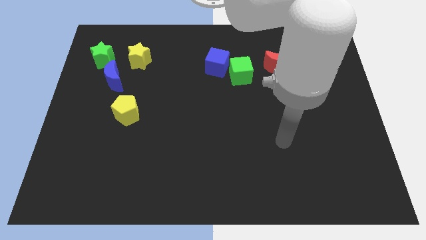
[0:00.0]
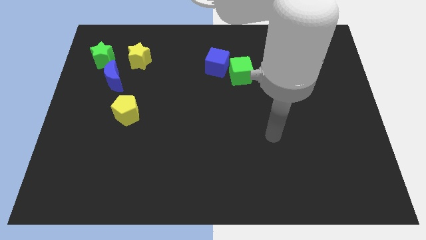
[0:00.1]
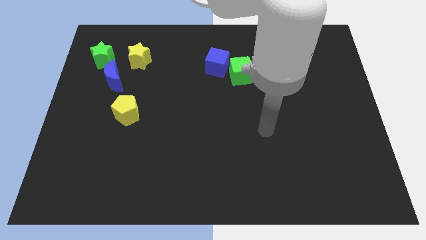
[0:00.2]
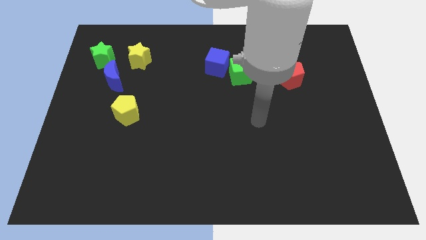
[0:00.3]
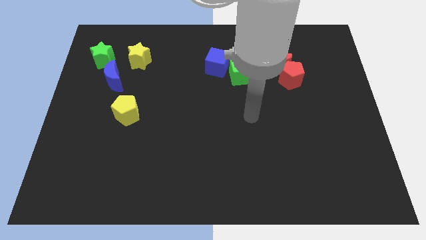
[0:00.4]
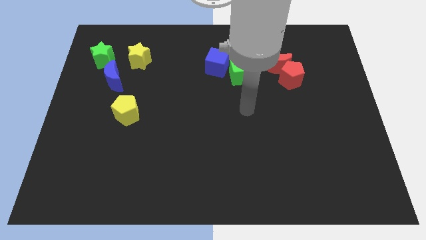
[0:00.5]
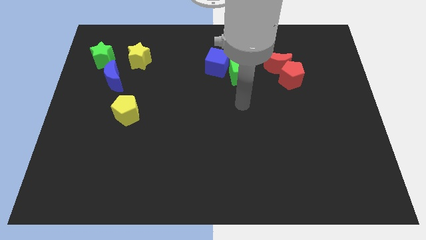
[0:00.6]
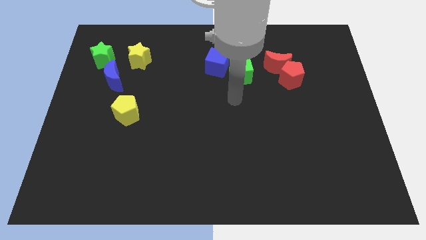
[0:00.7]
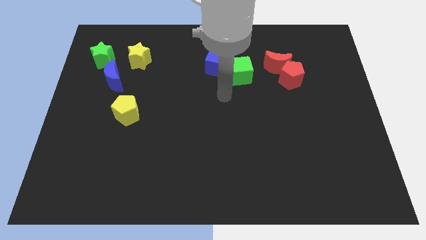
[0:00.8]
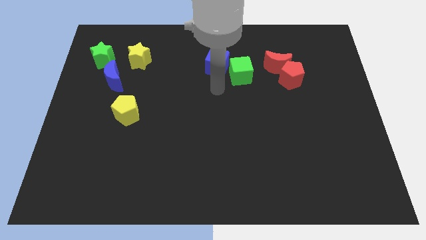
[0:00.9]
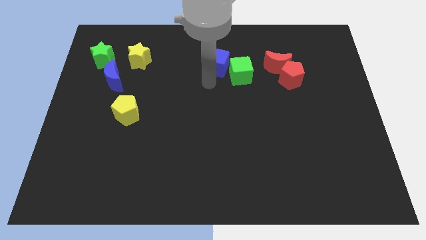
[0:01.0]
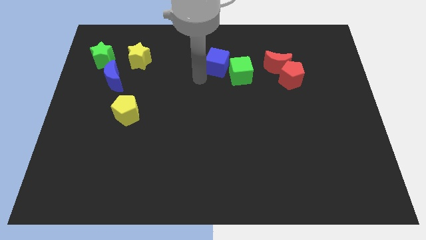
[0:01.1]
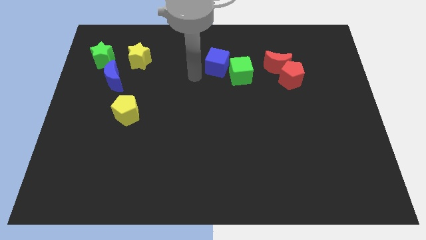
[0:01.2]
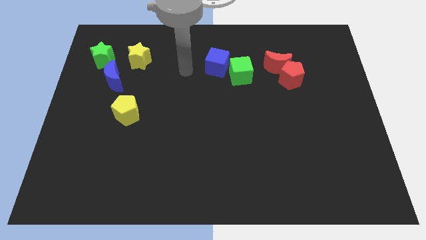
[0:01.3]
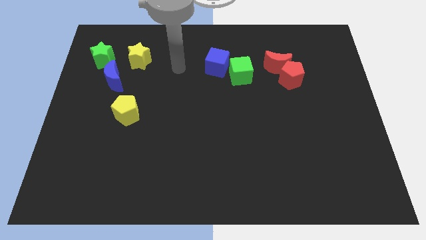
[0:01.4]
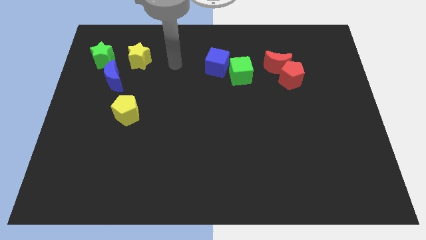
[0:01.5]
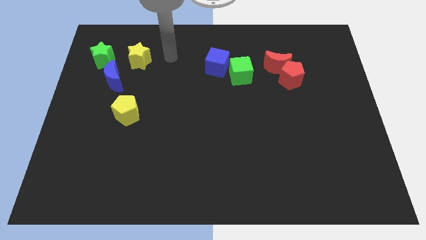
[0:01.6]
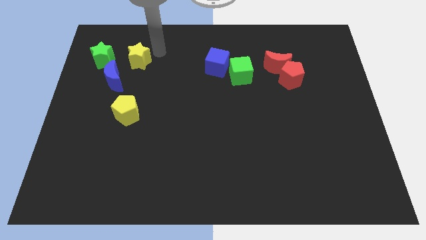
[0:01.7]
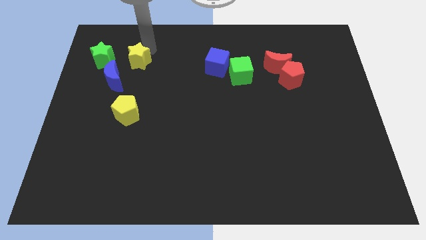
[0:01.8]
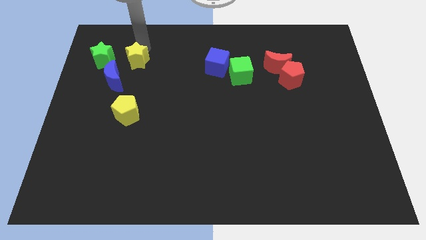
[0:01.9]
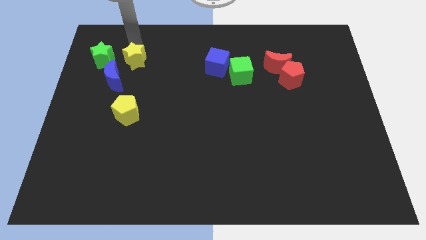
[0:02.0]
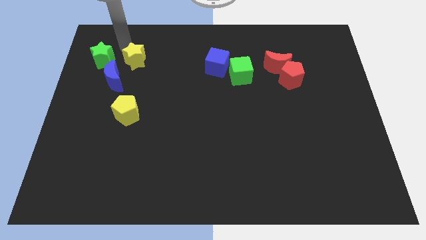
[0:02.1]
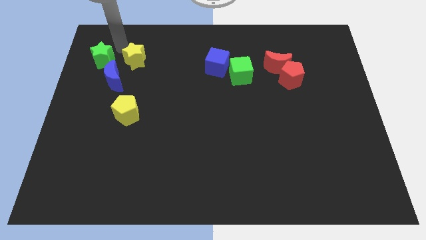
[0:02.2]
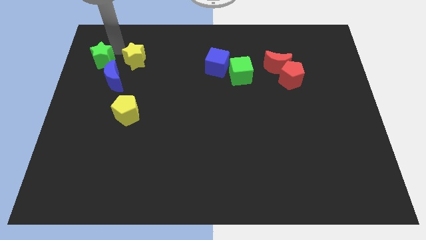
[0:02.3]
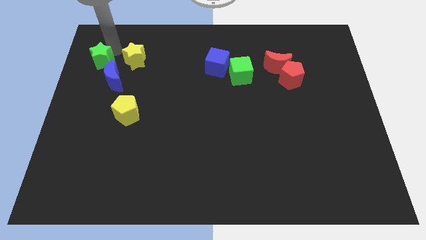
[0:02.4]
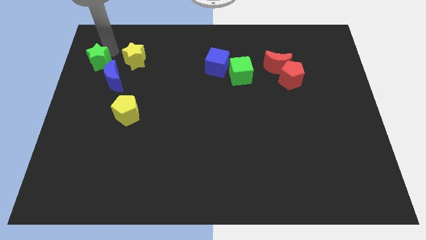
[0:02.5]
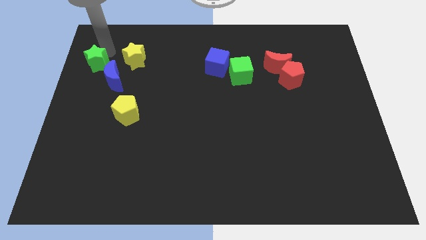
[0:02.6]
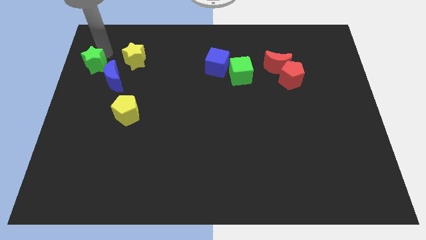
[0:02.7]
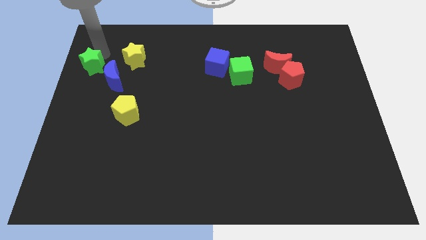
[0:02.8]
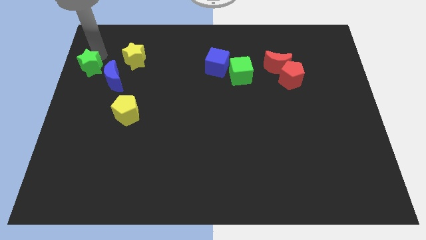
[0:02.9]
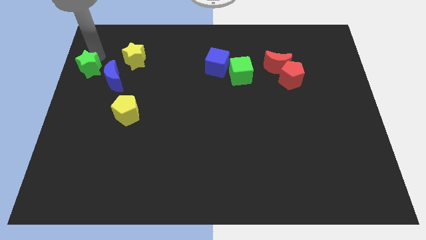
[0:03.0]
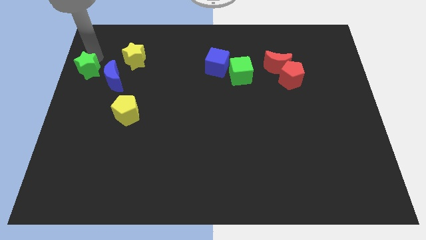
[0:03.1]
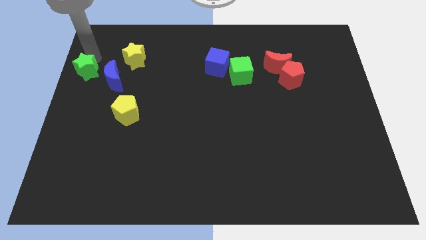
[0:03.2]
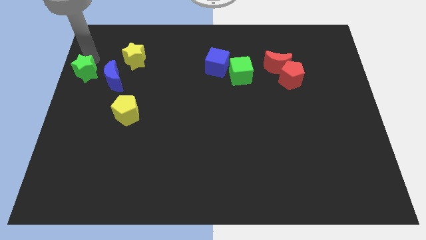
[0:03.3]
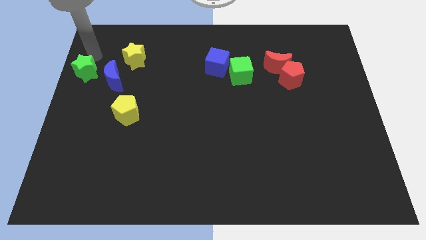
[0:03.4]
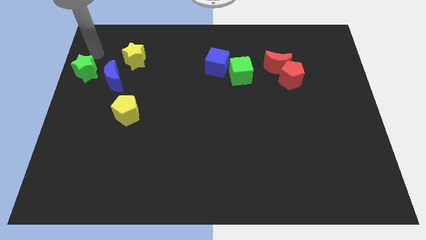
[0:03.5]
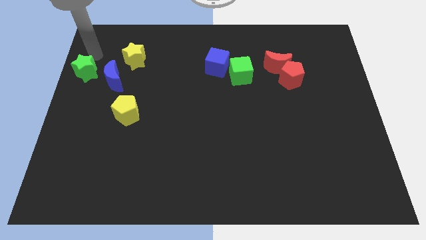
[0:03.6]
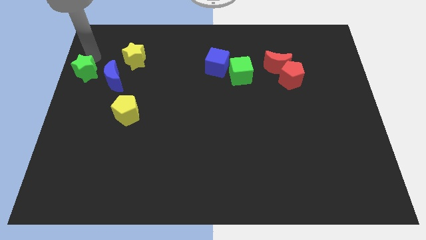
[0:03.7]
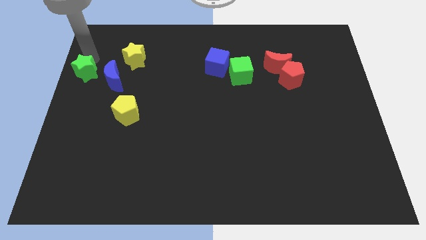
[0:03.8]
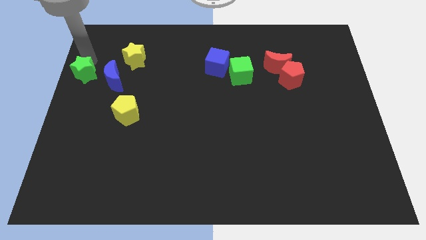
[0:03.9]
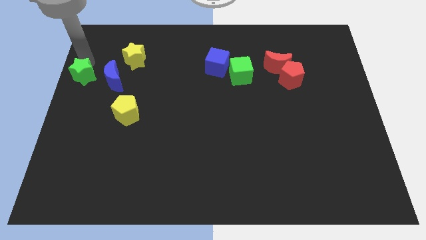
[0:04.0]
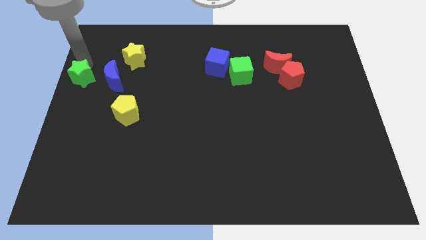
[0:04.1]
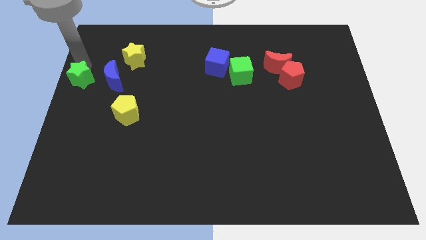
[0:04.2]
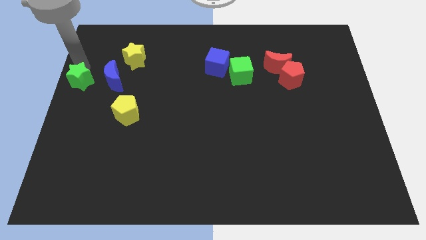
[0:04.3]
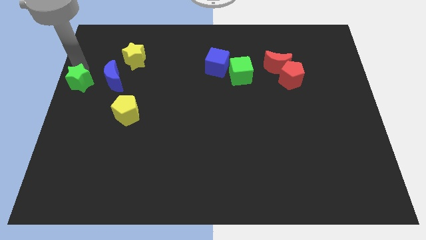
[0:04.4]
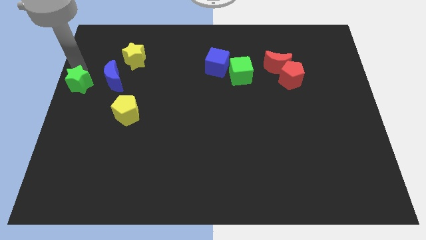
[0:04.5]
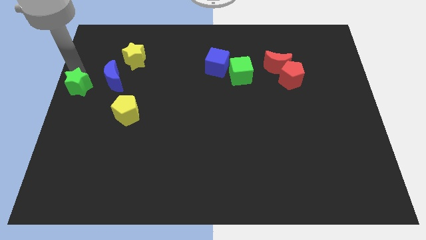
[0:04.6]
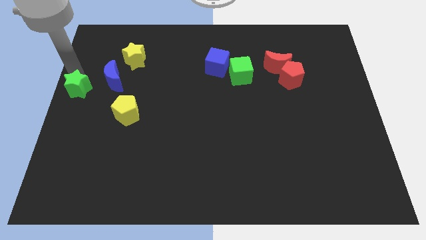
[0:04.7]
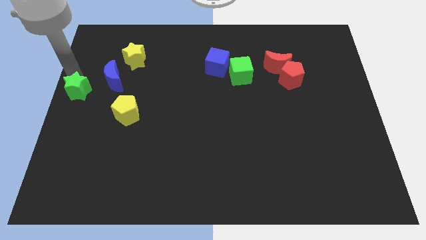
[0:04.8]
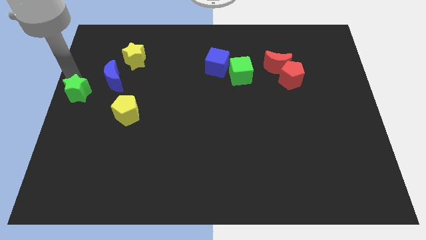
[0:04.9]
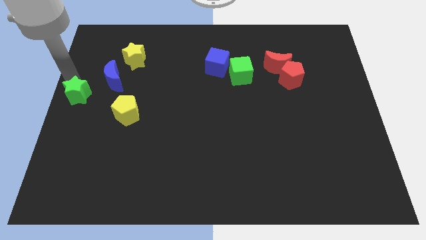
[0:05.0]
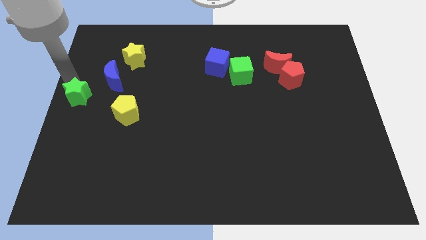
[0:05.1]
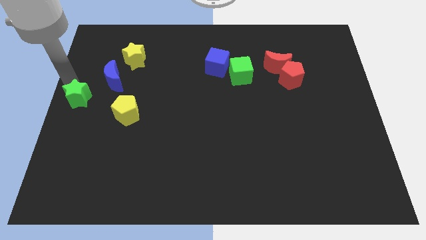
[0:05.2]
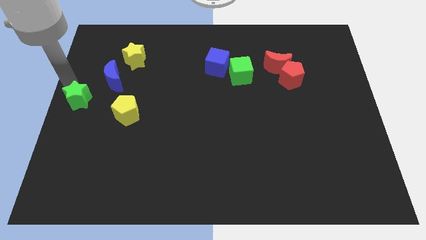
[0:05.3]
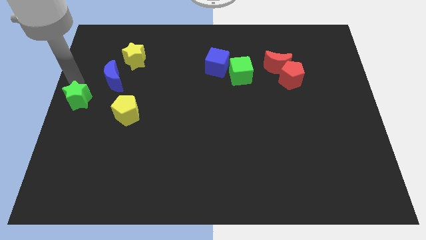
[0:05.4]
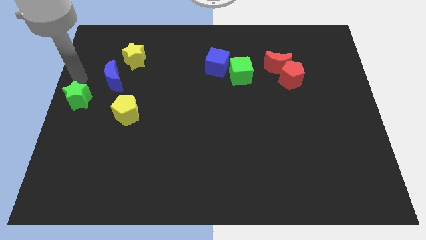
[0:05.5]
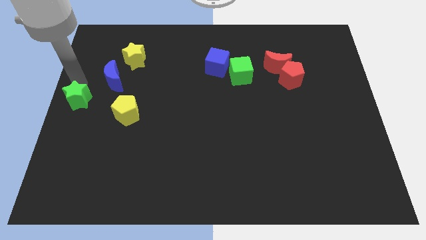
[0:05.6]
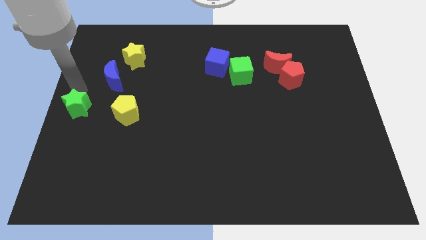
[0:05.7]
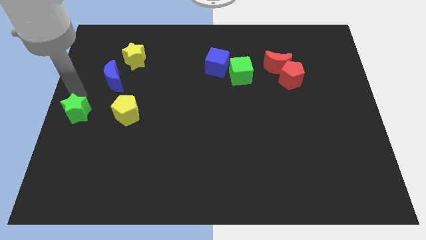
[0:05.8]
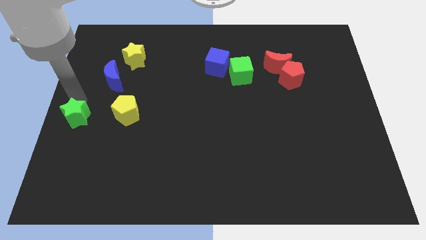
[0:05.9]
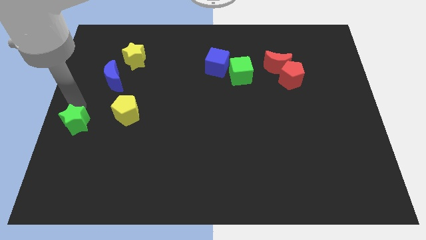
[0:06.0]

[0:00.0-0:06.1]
slide the green star down

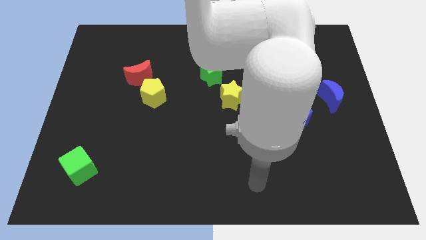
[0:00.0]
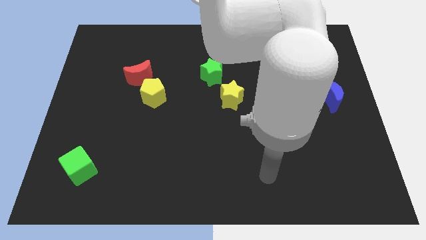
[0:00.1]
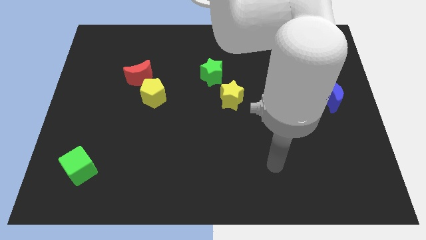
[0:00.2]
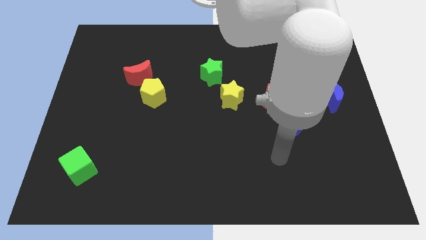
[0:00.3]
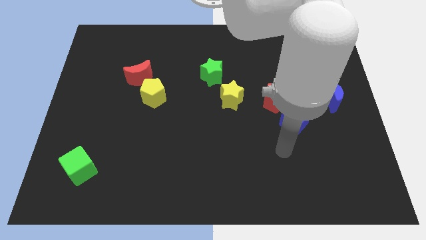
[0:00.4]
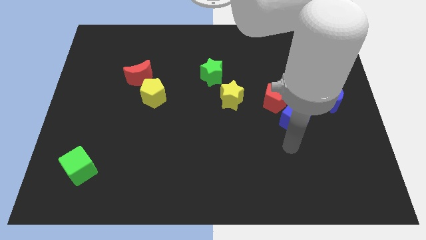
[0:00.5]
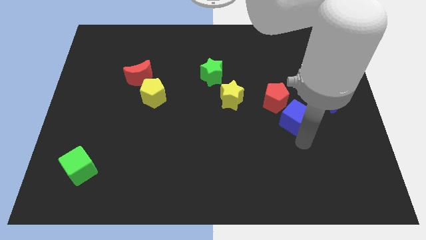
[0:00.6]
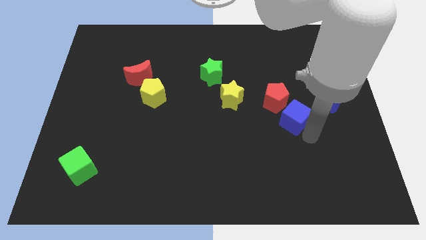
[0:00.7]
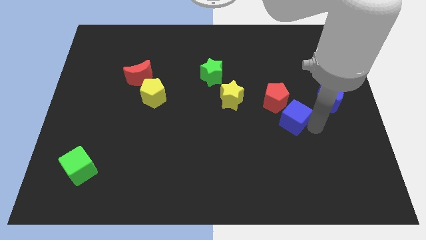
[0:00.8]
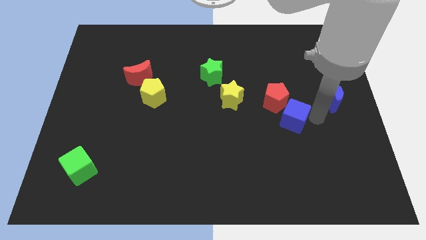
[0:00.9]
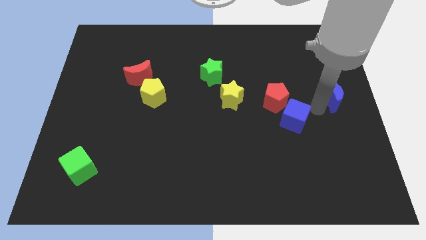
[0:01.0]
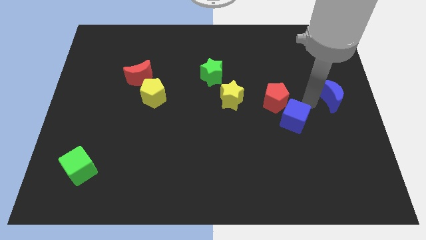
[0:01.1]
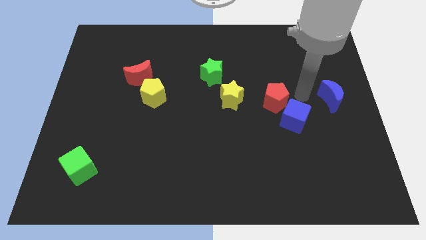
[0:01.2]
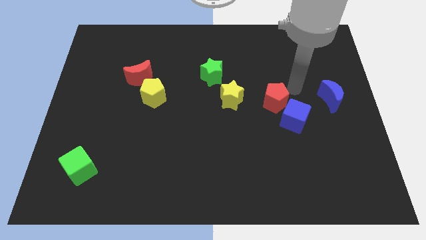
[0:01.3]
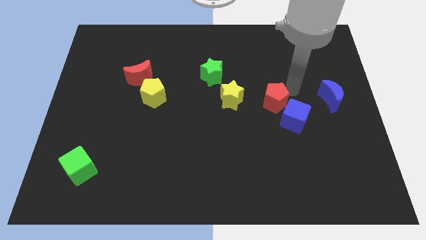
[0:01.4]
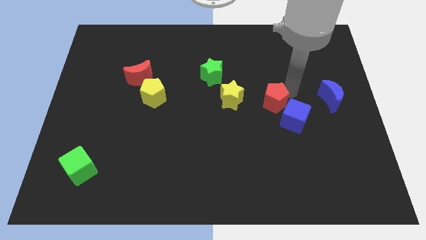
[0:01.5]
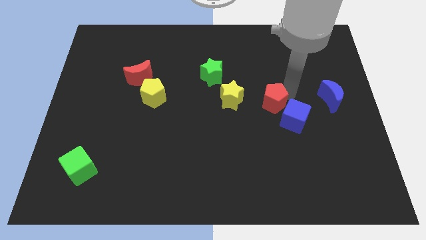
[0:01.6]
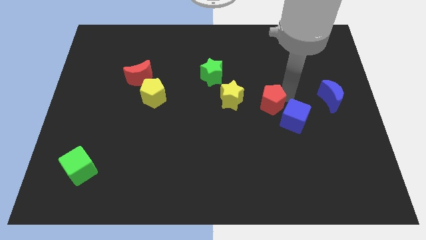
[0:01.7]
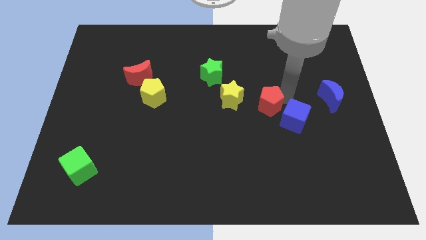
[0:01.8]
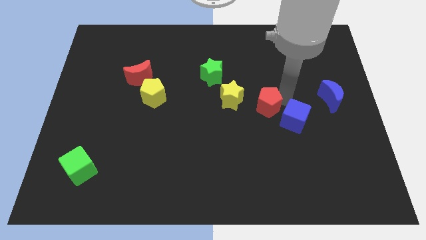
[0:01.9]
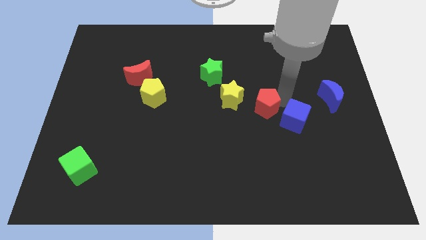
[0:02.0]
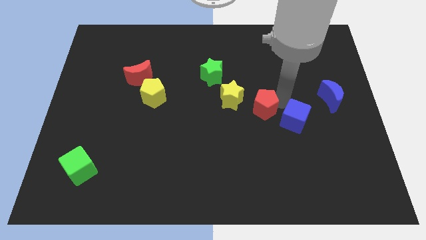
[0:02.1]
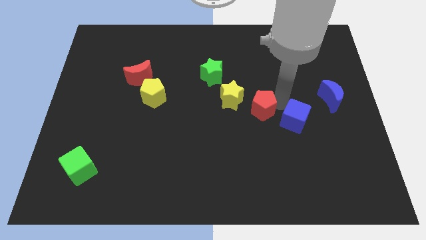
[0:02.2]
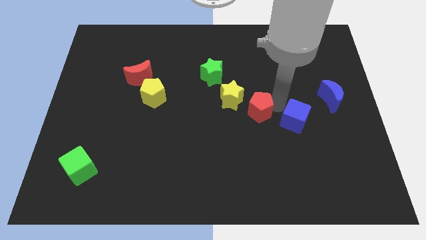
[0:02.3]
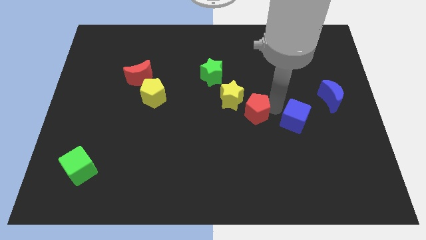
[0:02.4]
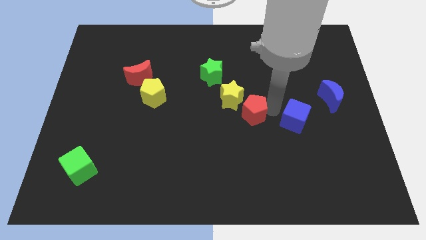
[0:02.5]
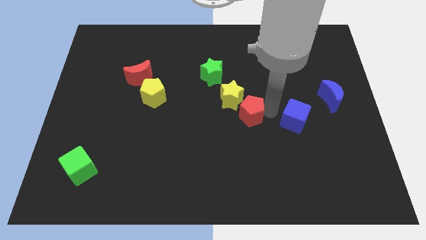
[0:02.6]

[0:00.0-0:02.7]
push the red pentagon down and left diagonally slightly
